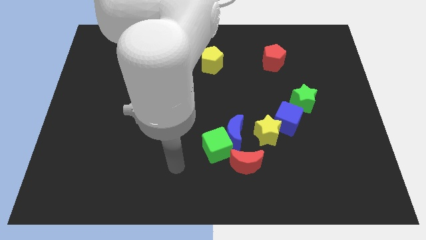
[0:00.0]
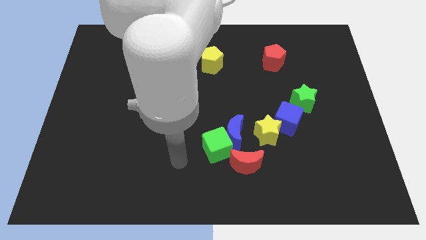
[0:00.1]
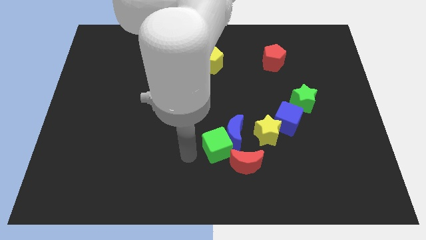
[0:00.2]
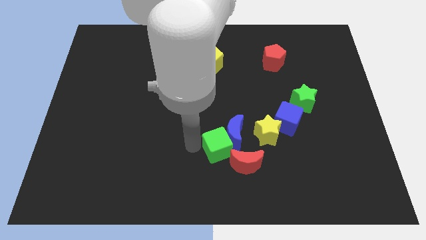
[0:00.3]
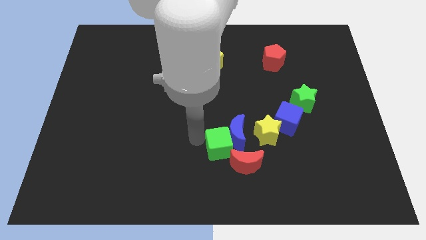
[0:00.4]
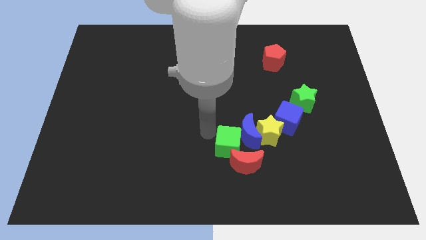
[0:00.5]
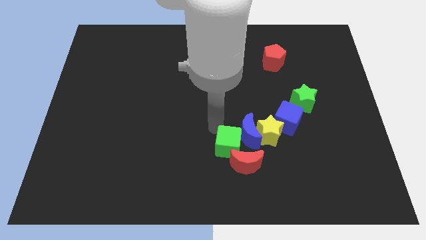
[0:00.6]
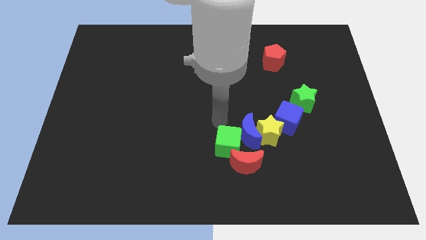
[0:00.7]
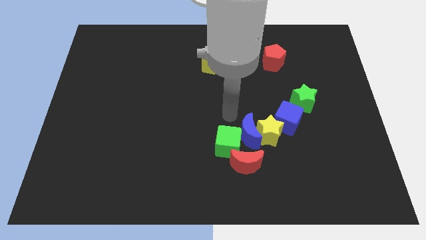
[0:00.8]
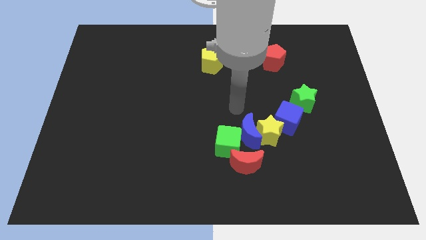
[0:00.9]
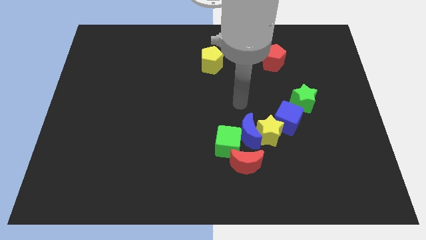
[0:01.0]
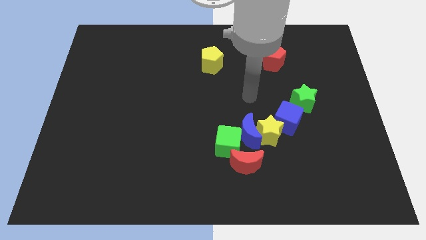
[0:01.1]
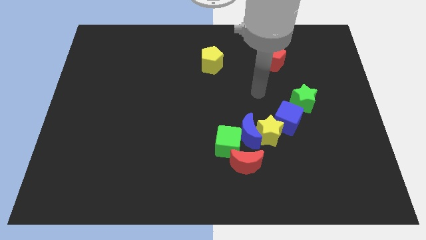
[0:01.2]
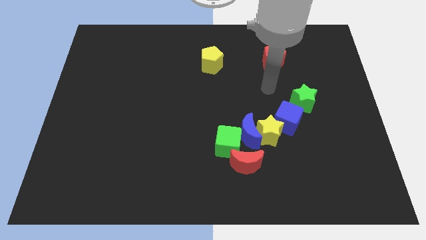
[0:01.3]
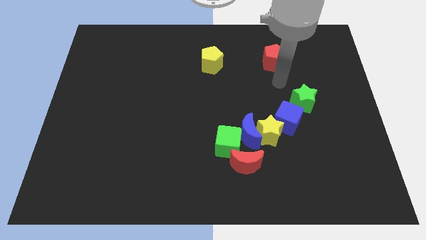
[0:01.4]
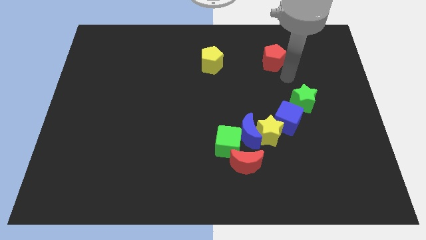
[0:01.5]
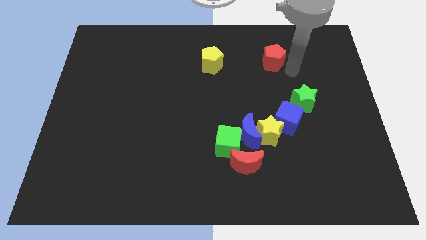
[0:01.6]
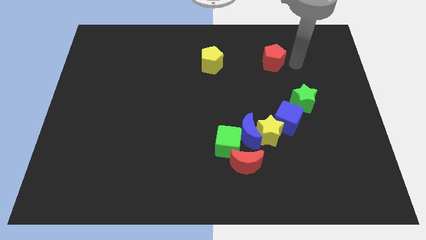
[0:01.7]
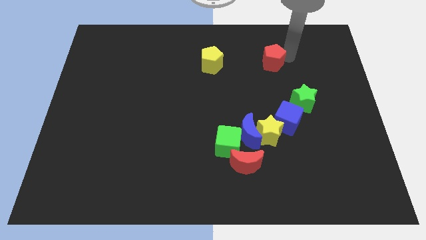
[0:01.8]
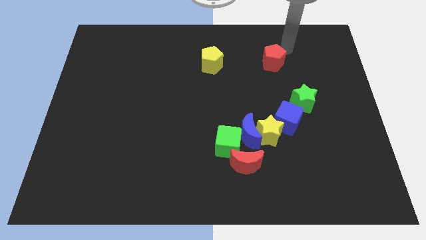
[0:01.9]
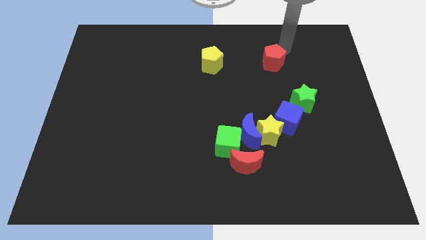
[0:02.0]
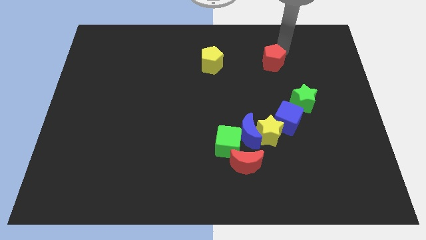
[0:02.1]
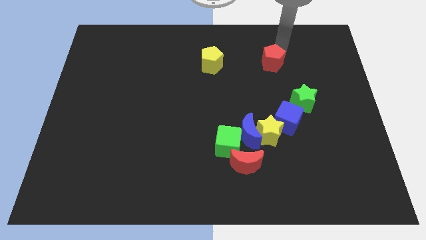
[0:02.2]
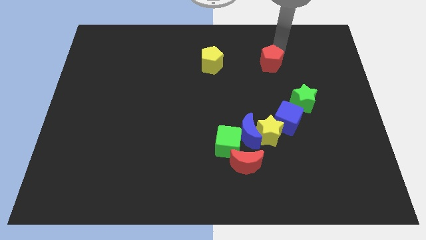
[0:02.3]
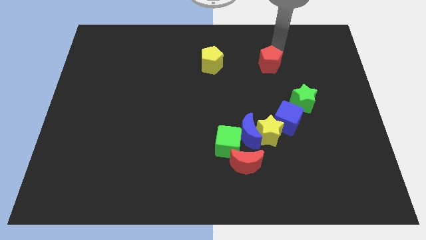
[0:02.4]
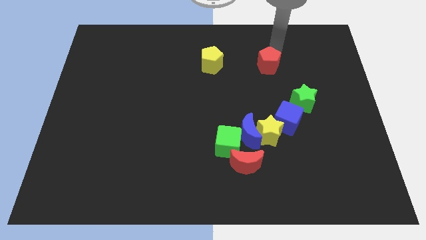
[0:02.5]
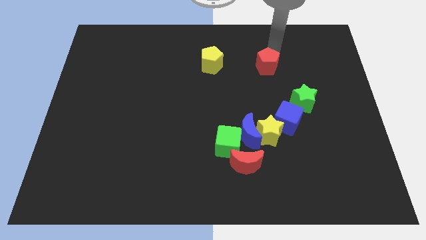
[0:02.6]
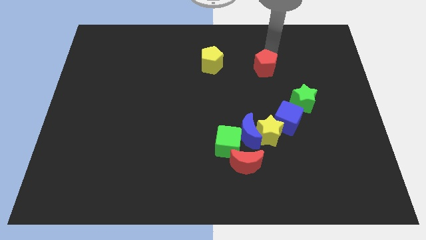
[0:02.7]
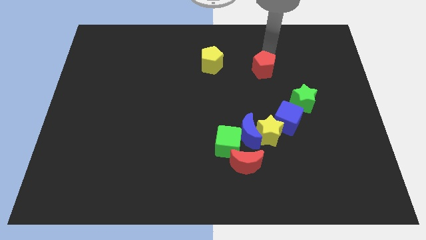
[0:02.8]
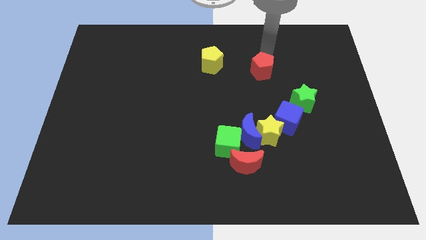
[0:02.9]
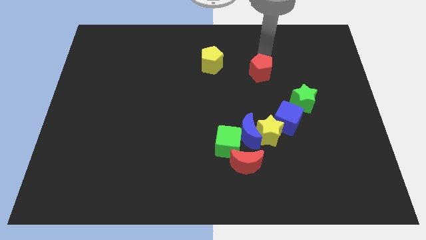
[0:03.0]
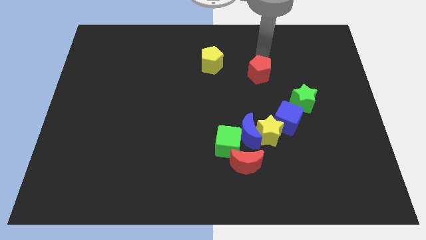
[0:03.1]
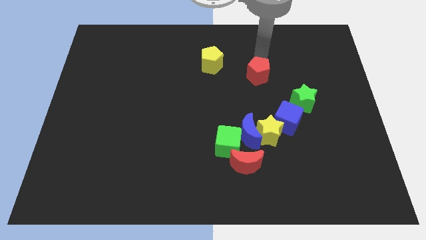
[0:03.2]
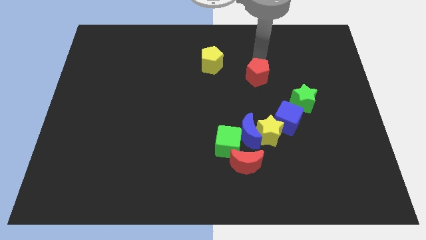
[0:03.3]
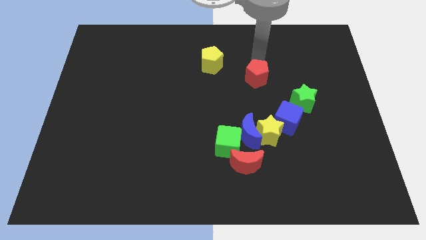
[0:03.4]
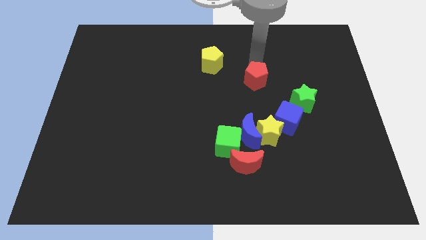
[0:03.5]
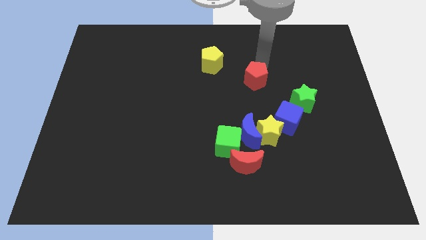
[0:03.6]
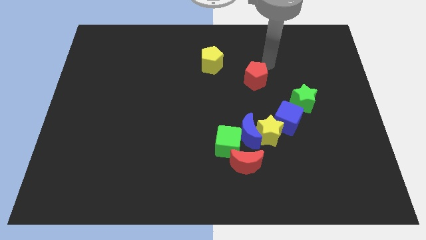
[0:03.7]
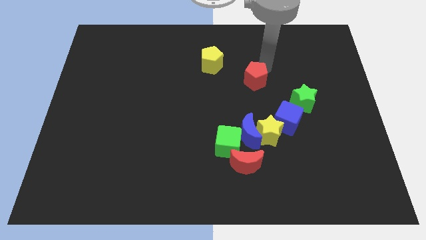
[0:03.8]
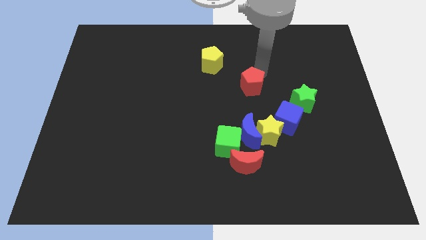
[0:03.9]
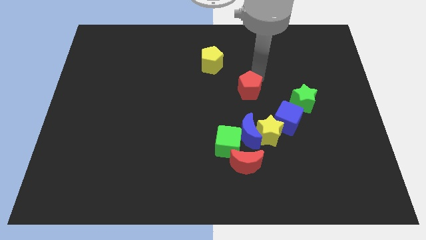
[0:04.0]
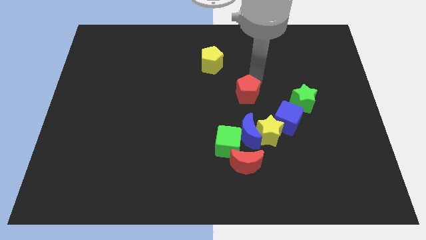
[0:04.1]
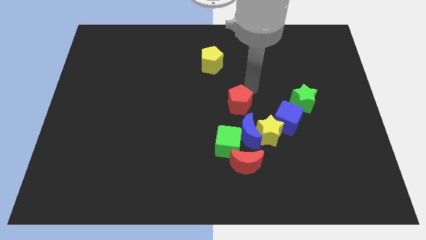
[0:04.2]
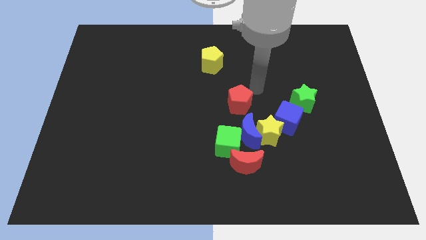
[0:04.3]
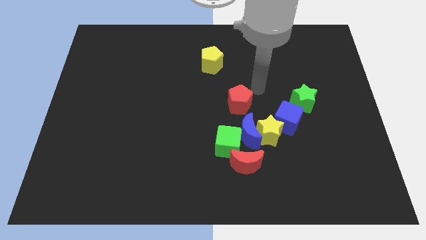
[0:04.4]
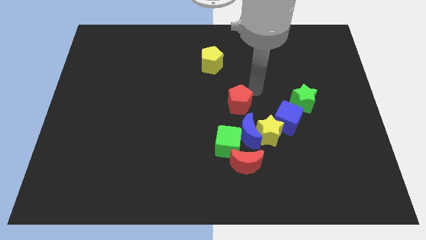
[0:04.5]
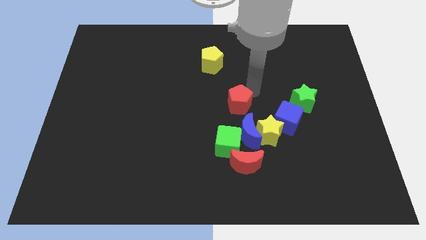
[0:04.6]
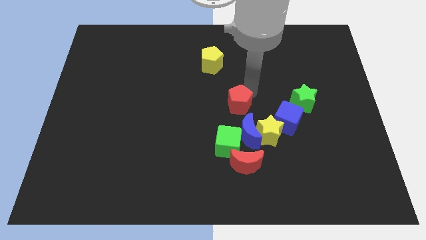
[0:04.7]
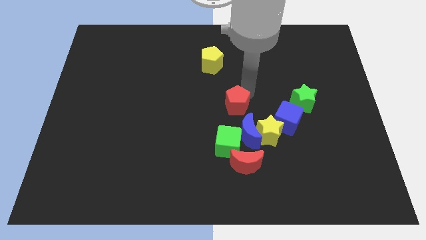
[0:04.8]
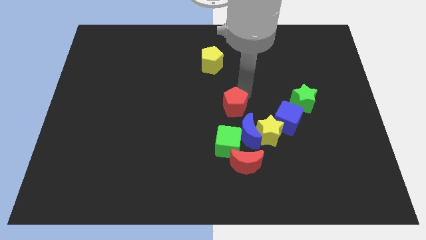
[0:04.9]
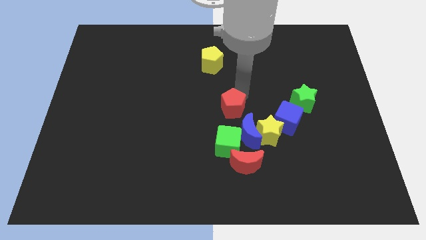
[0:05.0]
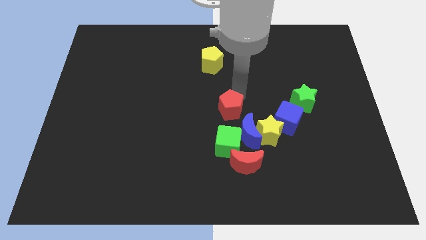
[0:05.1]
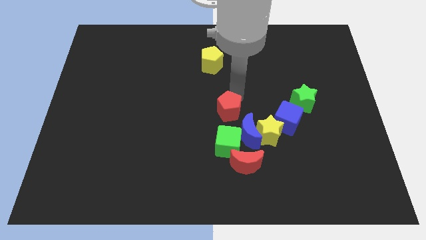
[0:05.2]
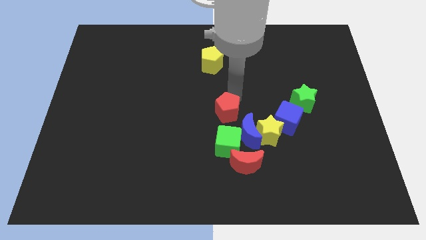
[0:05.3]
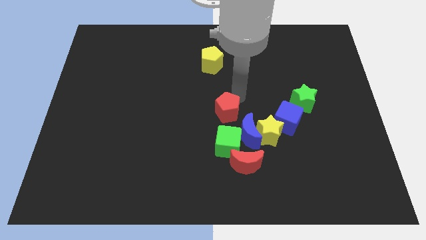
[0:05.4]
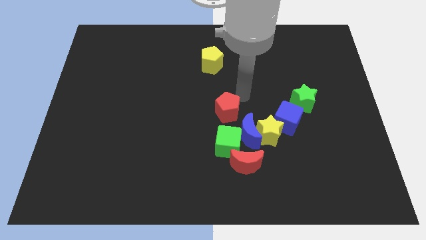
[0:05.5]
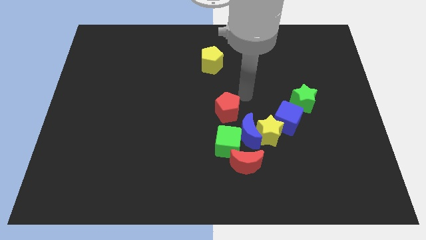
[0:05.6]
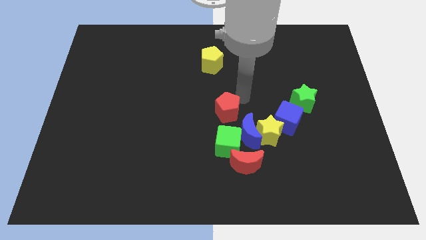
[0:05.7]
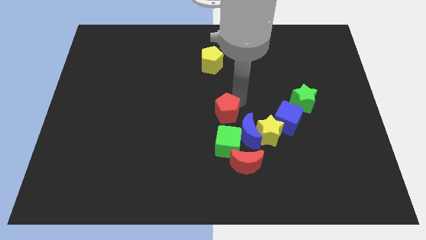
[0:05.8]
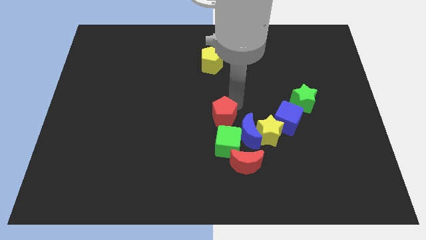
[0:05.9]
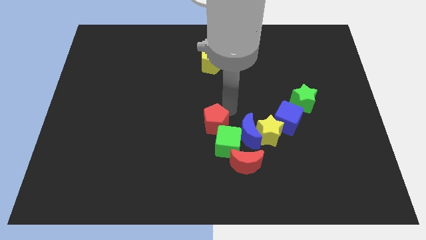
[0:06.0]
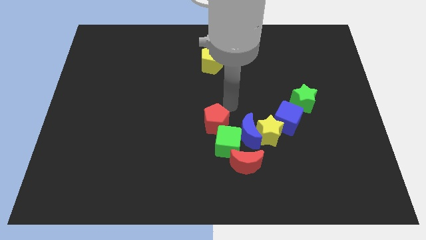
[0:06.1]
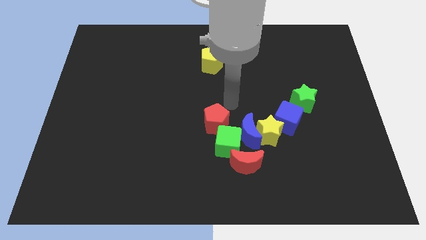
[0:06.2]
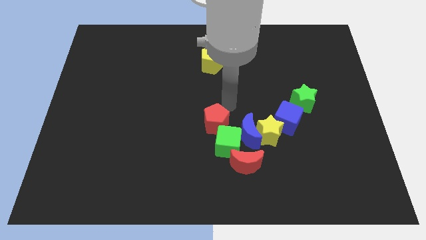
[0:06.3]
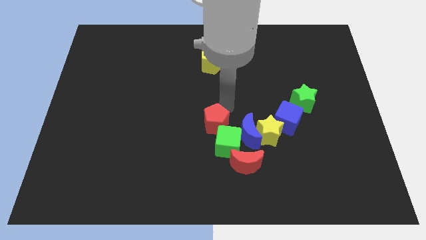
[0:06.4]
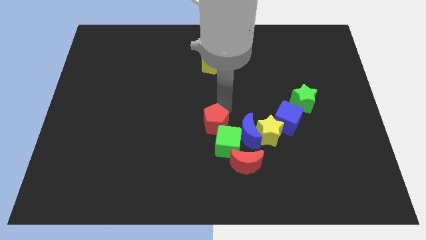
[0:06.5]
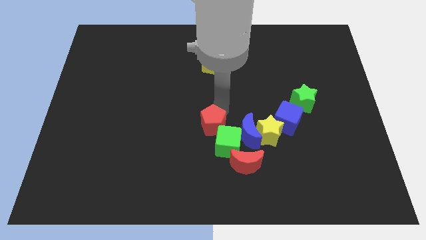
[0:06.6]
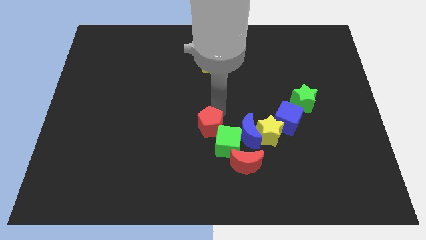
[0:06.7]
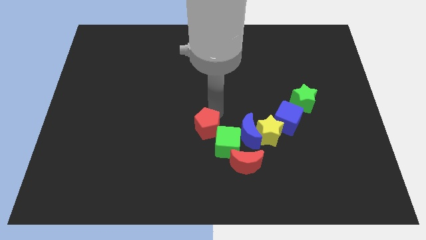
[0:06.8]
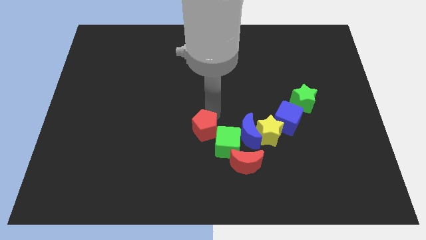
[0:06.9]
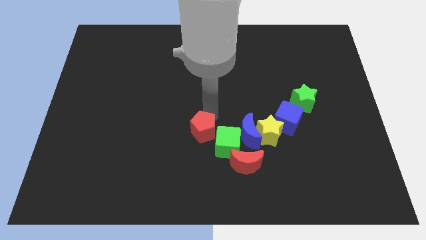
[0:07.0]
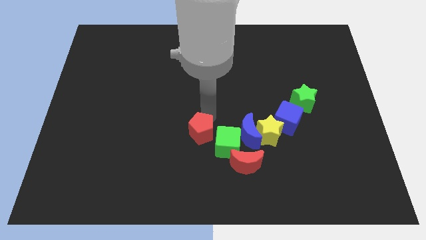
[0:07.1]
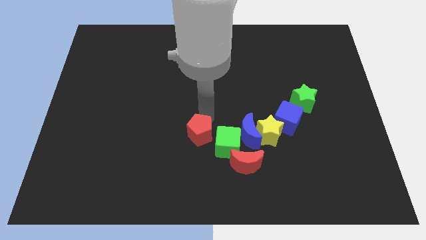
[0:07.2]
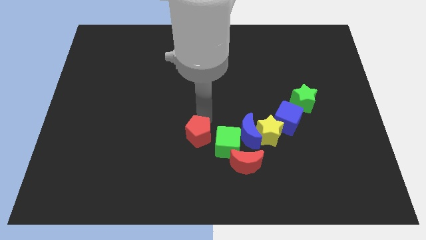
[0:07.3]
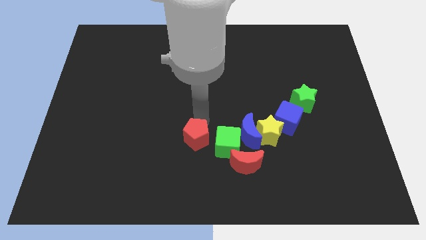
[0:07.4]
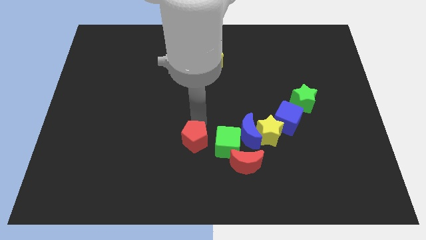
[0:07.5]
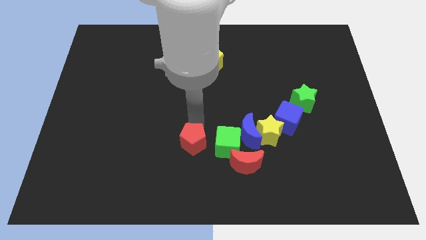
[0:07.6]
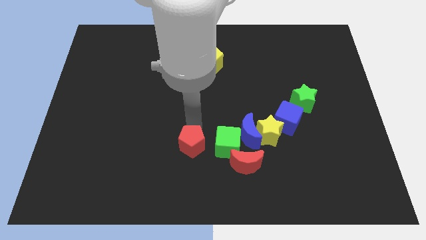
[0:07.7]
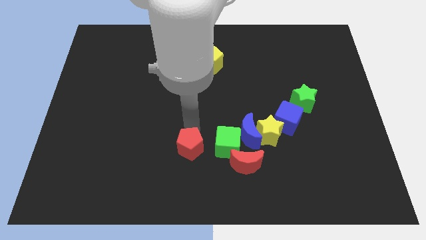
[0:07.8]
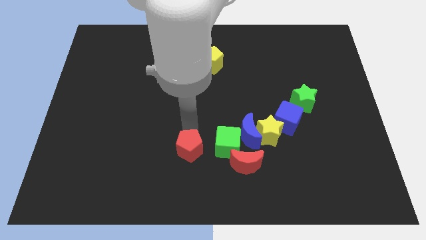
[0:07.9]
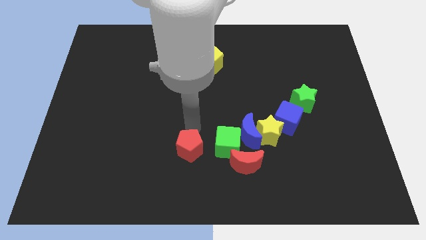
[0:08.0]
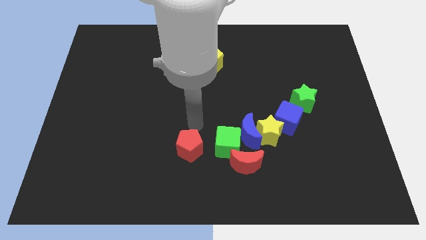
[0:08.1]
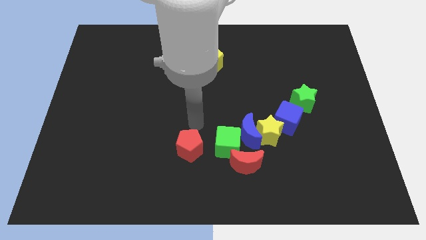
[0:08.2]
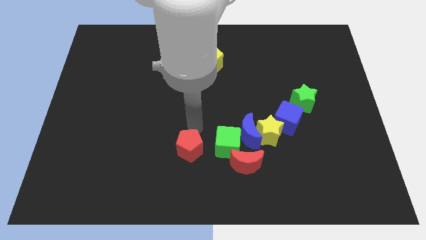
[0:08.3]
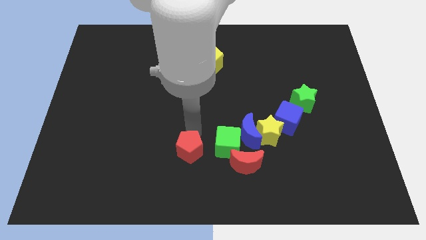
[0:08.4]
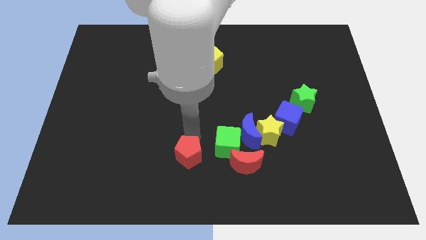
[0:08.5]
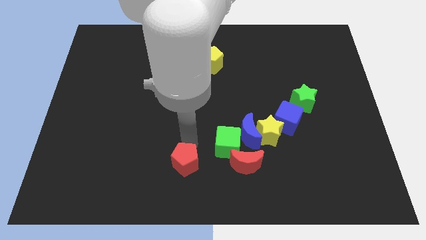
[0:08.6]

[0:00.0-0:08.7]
move the red pentagon to the bottom
